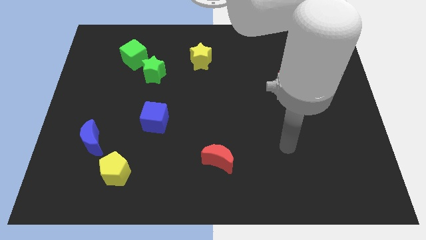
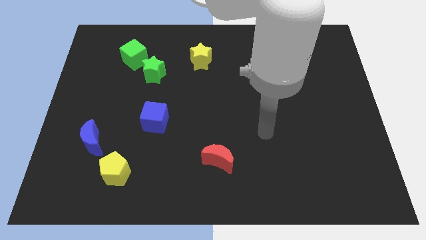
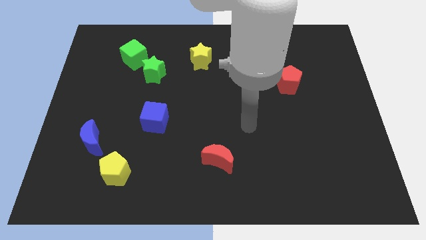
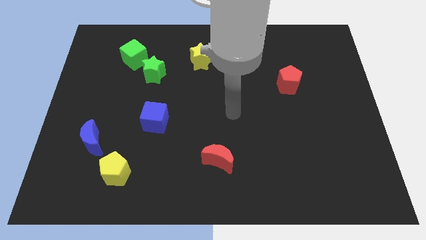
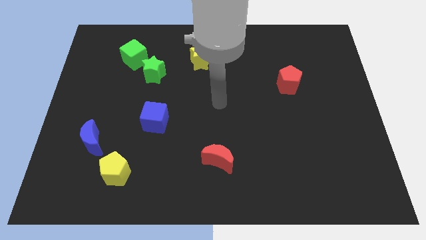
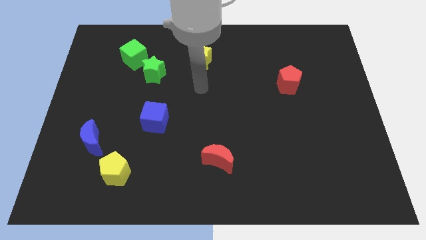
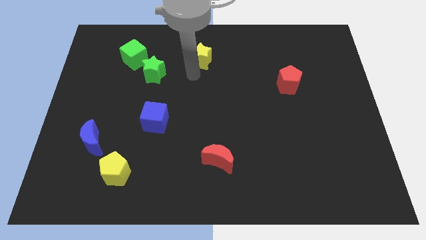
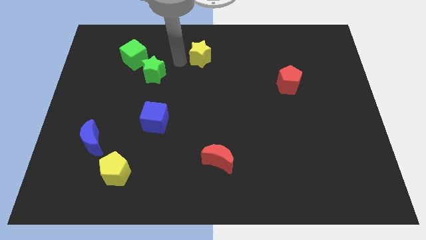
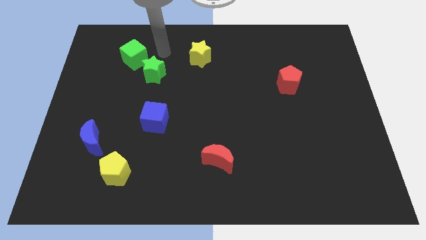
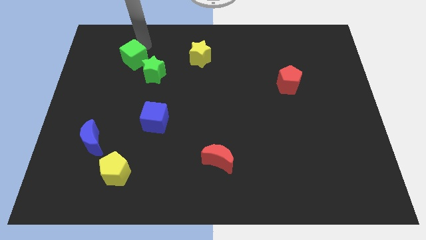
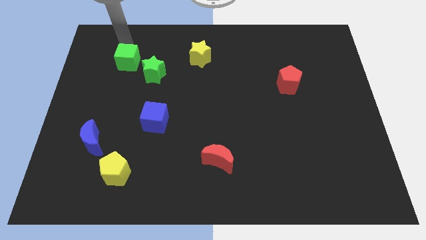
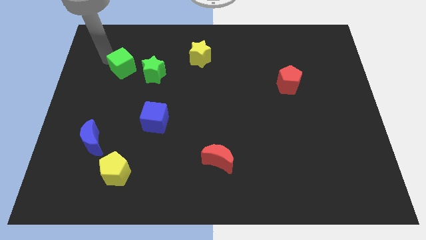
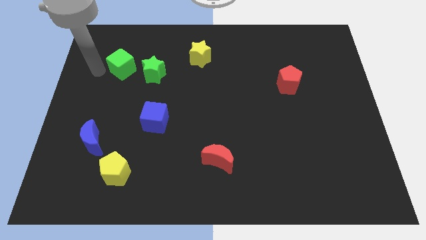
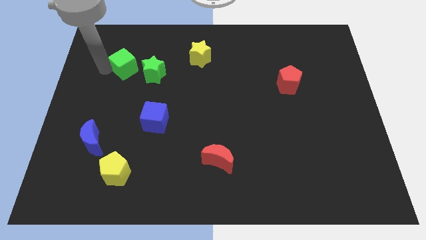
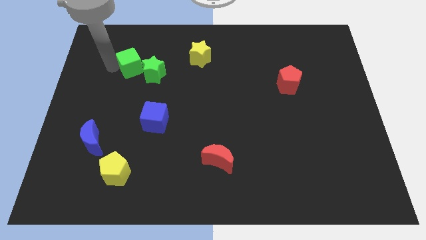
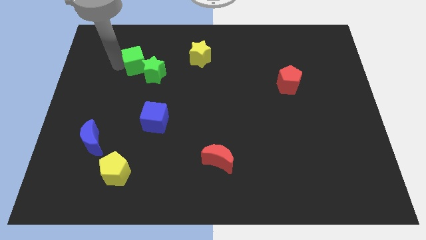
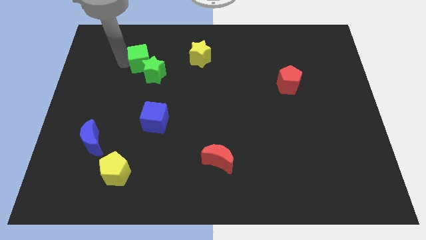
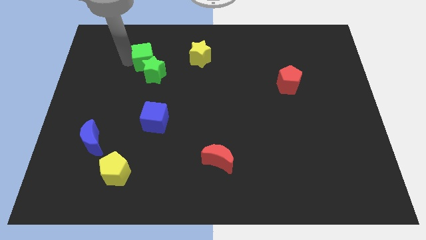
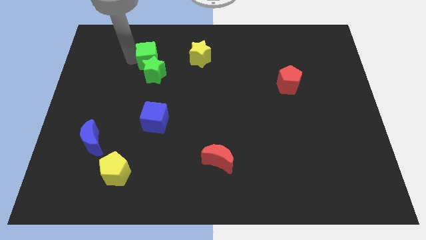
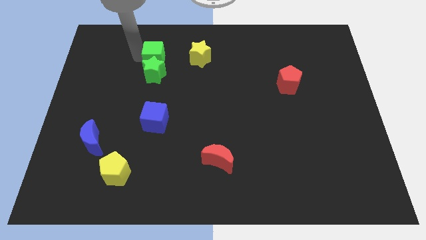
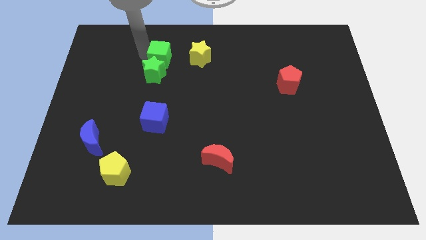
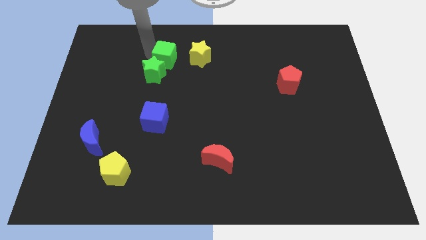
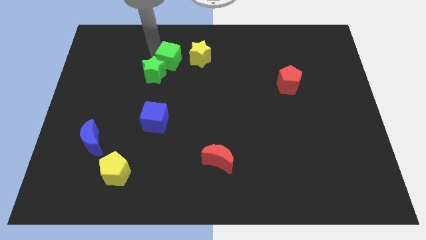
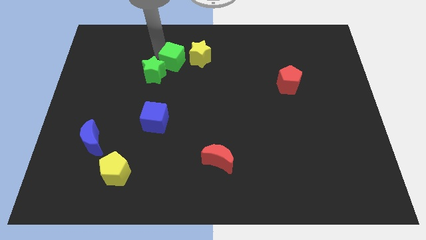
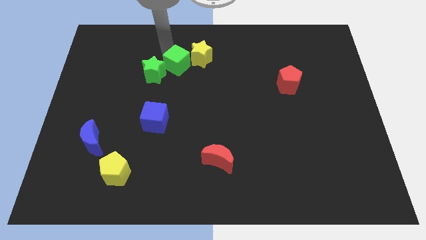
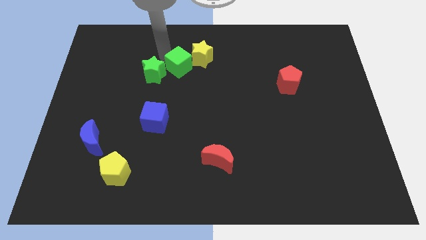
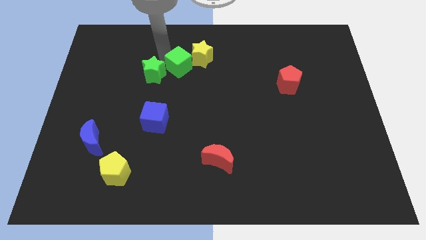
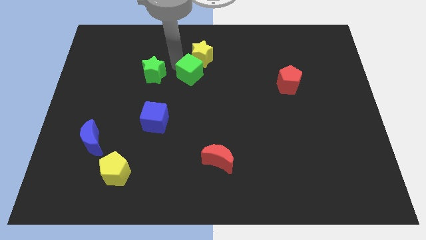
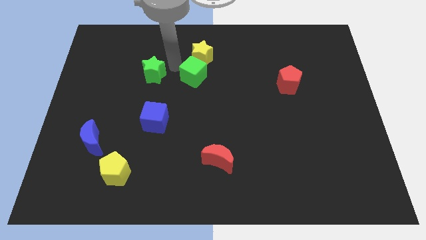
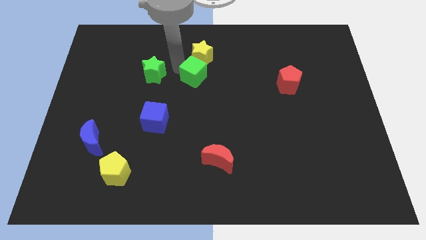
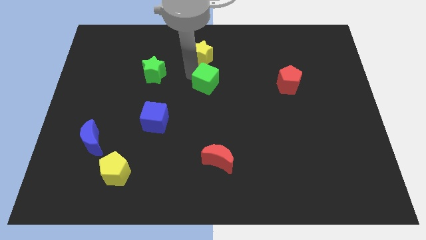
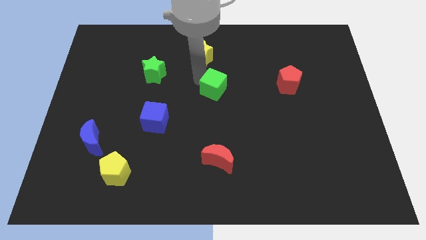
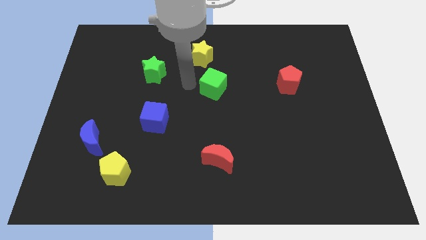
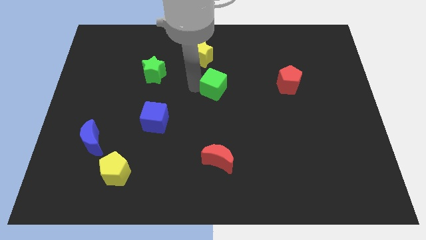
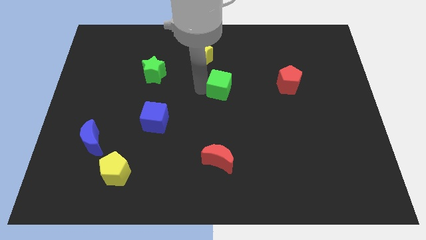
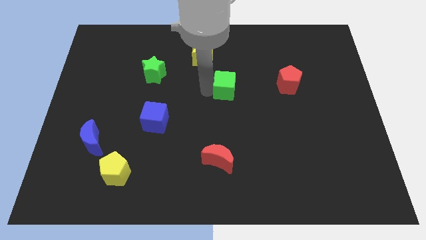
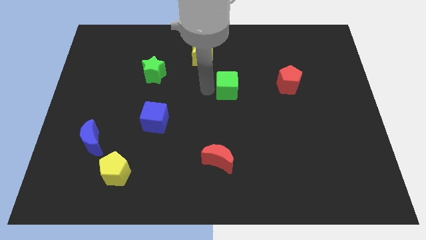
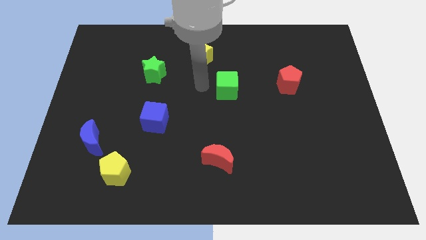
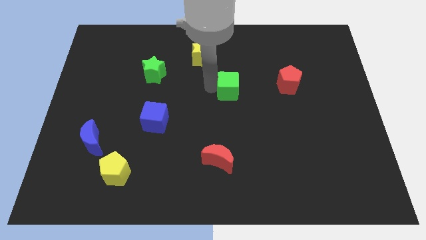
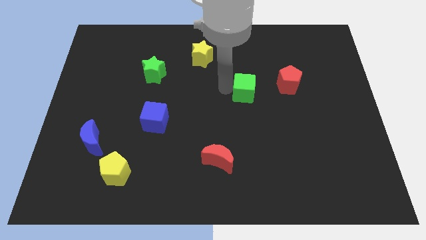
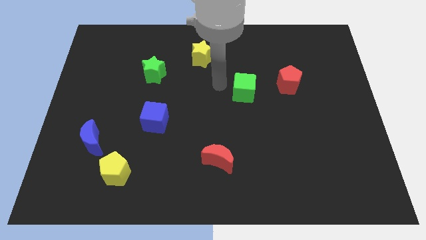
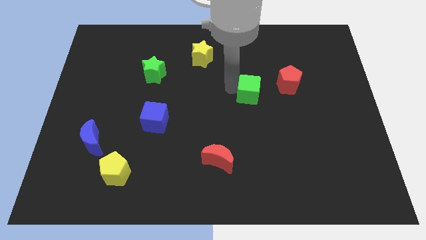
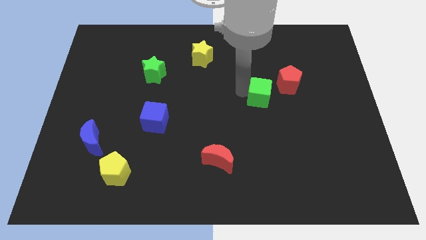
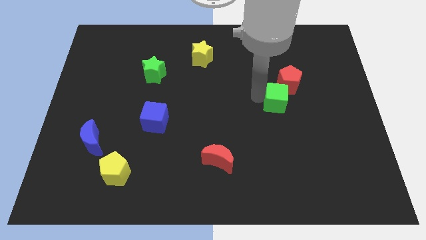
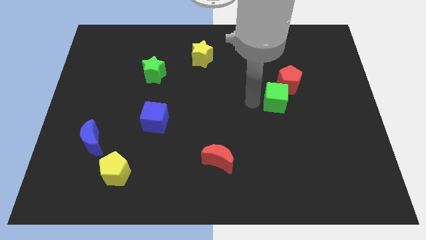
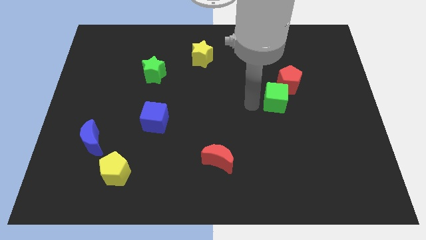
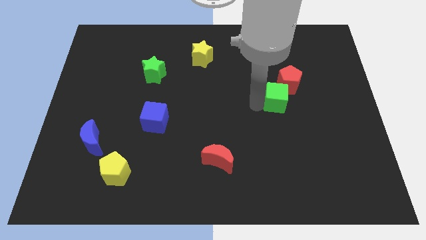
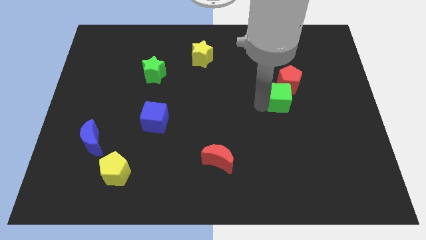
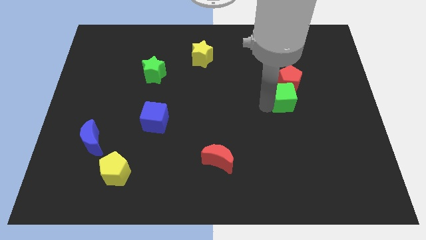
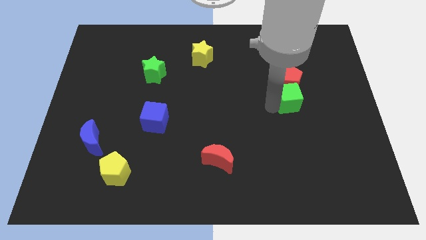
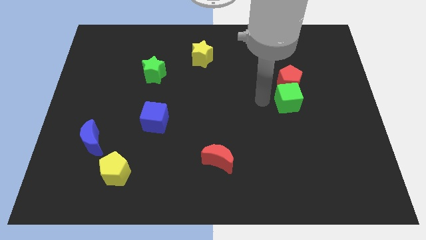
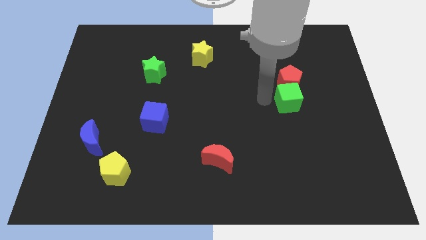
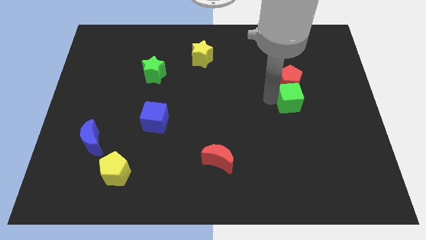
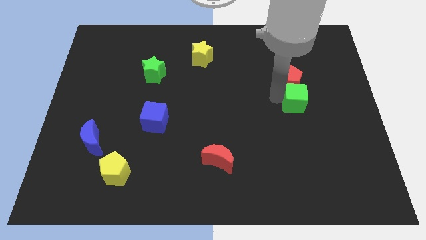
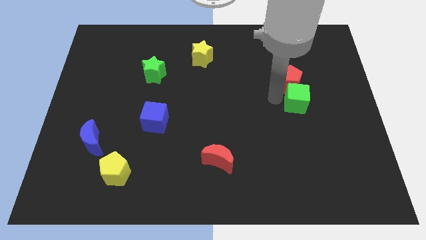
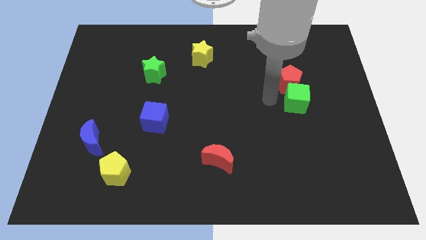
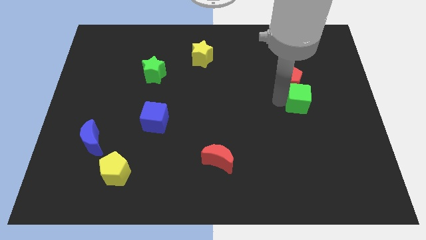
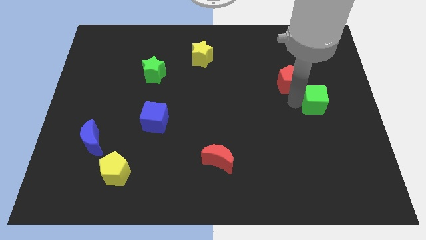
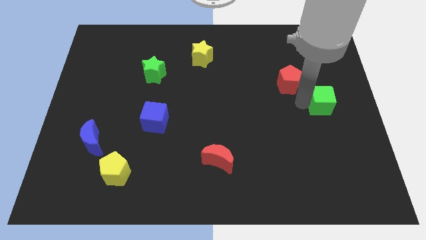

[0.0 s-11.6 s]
put the green cube to the right side of the board

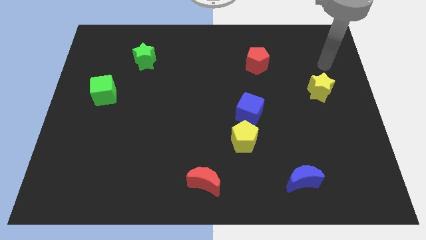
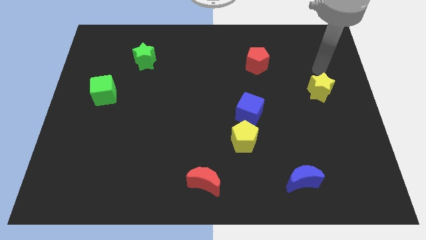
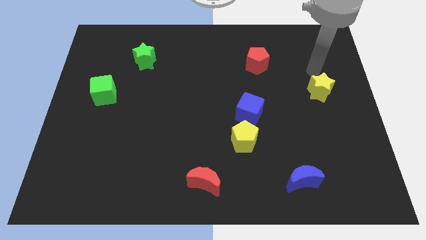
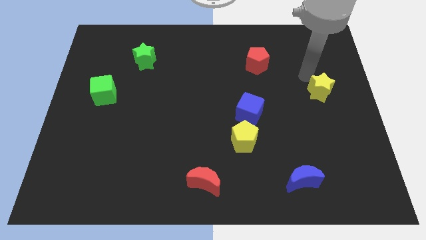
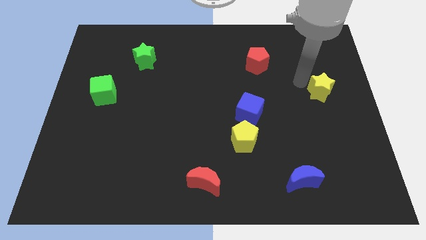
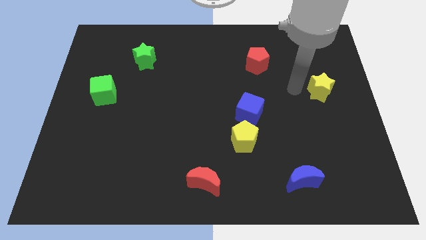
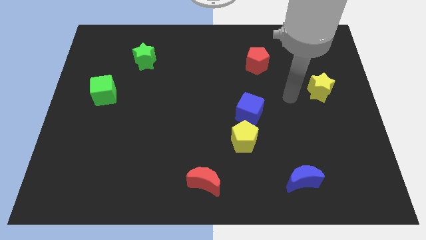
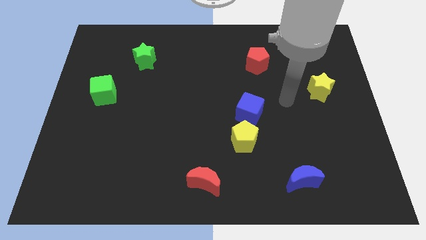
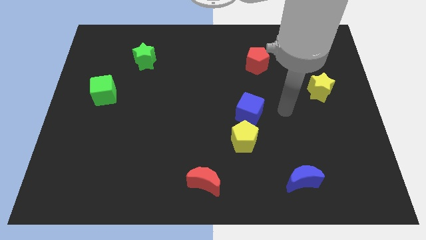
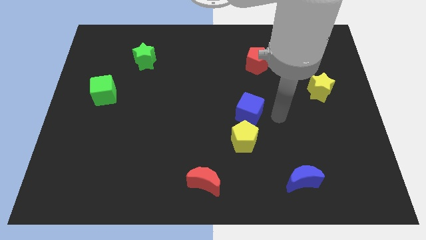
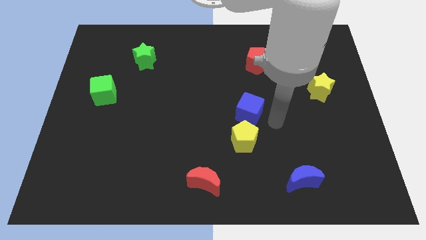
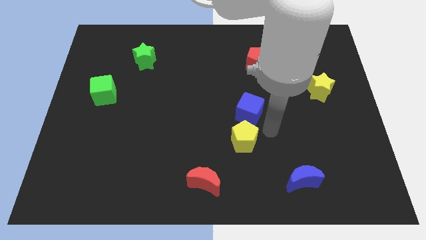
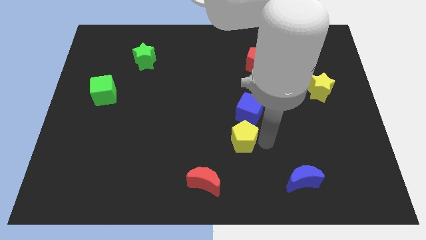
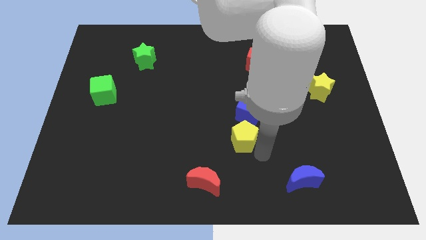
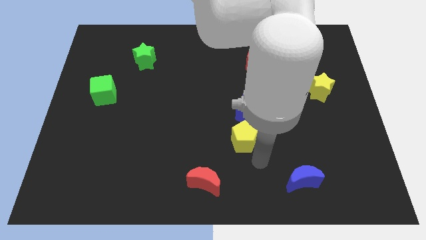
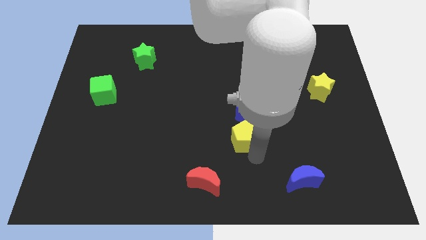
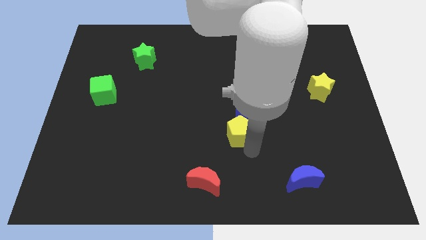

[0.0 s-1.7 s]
put the yellow pentagon to the center of the board
